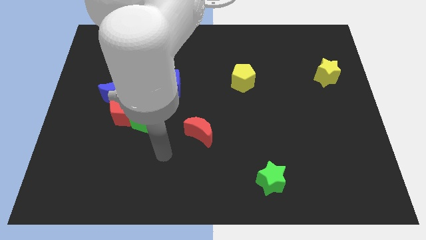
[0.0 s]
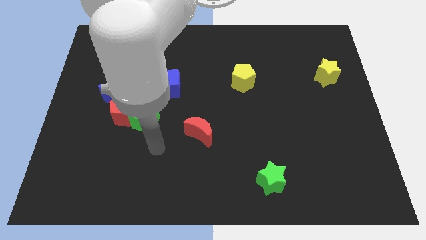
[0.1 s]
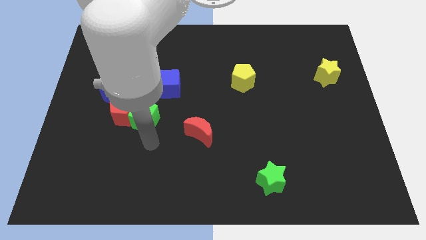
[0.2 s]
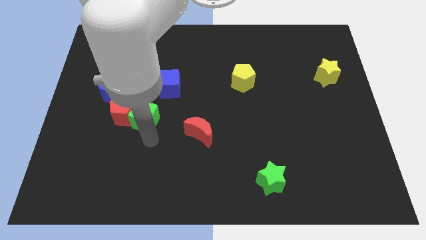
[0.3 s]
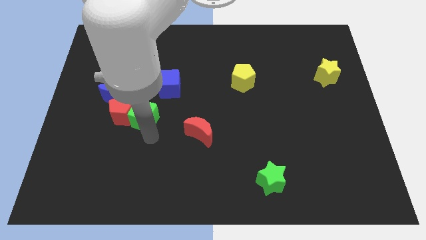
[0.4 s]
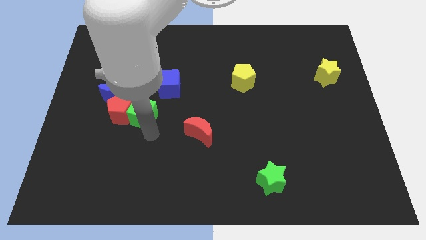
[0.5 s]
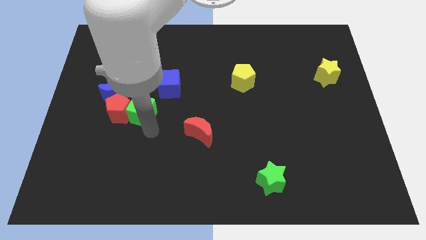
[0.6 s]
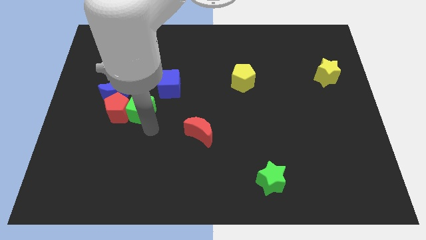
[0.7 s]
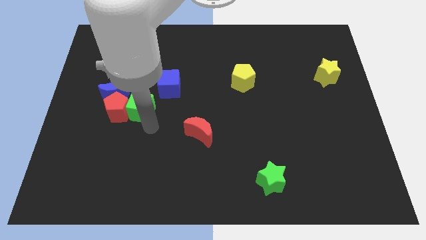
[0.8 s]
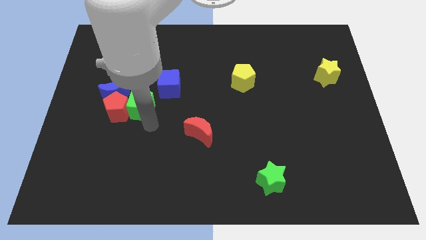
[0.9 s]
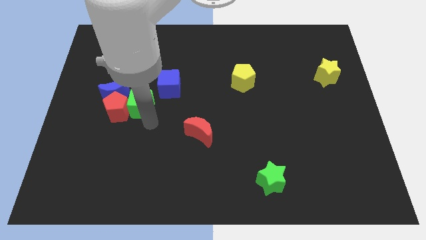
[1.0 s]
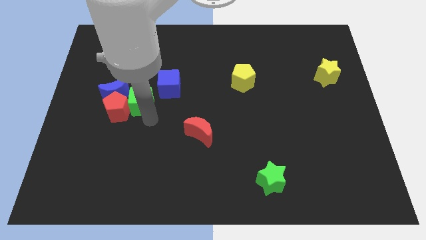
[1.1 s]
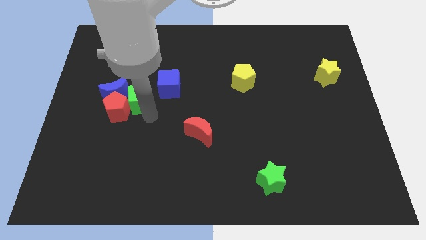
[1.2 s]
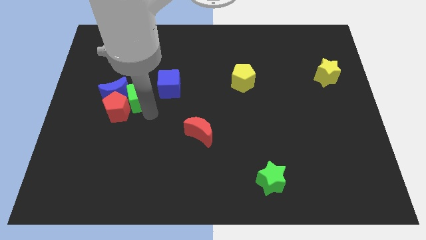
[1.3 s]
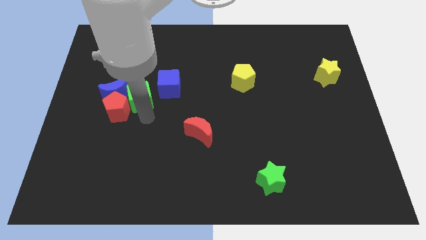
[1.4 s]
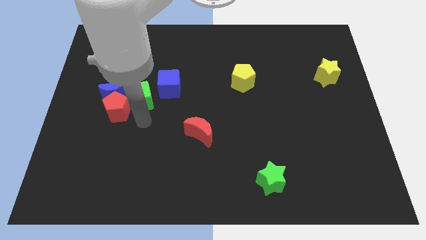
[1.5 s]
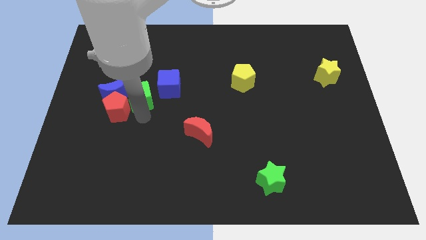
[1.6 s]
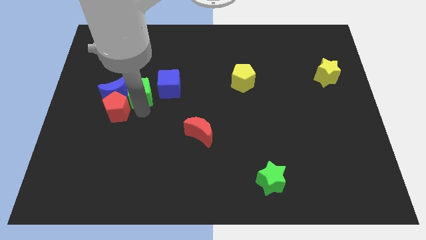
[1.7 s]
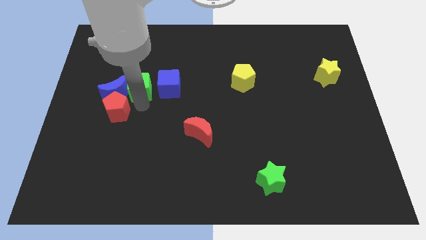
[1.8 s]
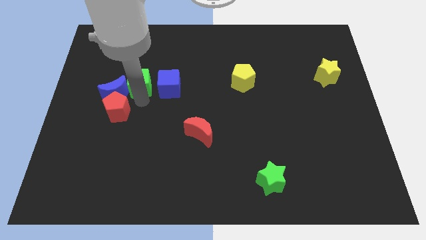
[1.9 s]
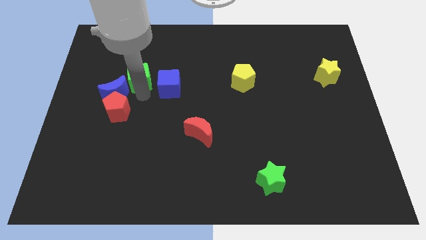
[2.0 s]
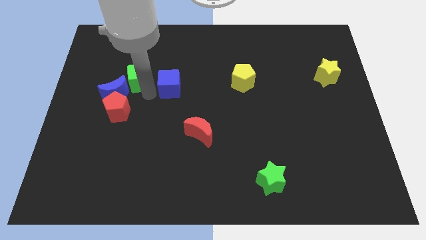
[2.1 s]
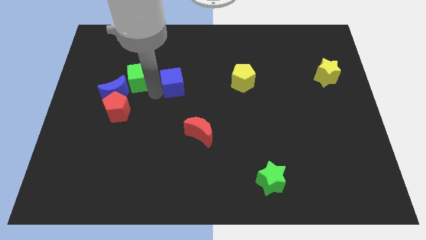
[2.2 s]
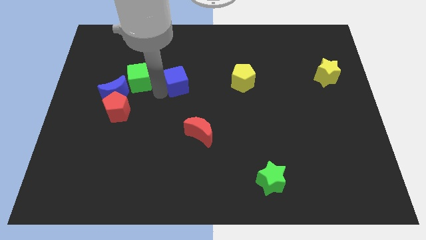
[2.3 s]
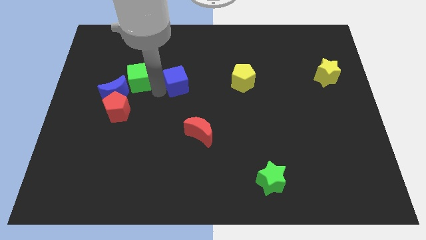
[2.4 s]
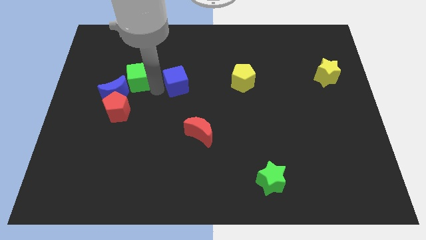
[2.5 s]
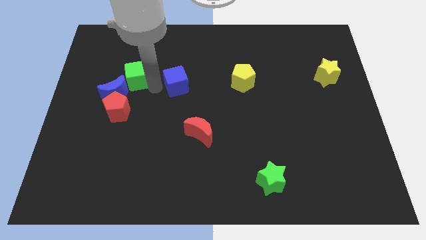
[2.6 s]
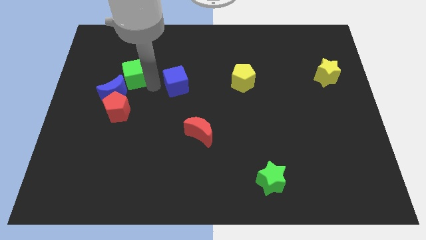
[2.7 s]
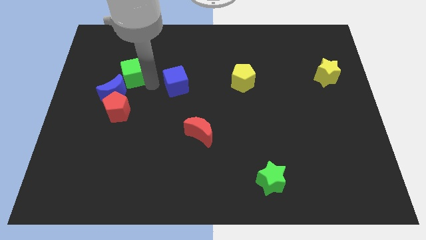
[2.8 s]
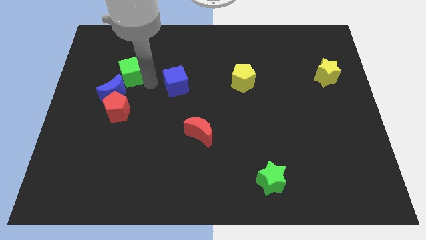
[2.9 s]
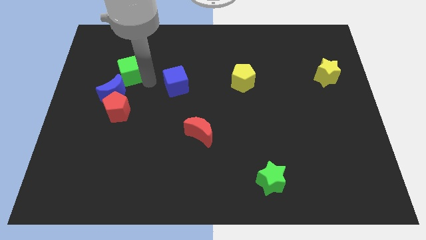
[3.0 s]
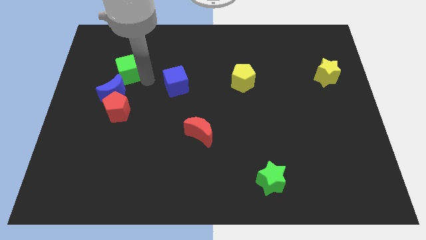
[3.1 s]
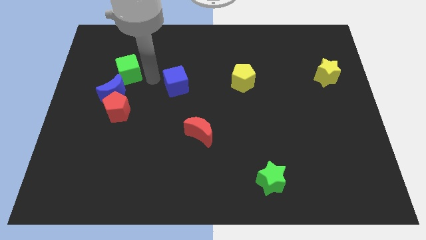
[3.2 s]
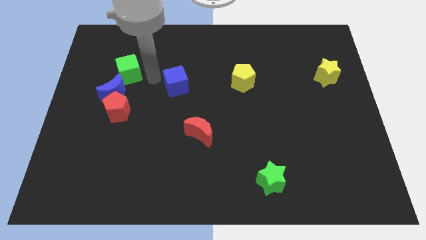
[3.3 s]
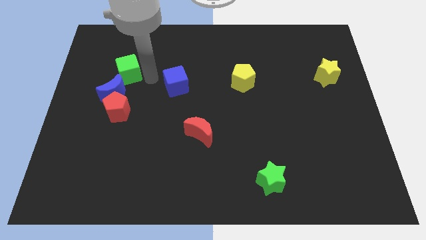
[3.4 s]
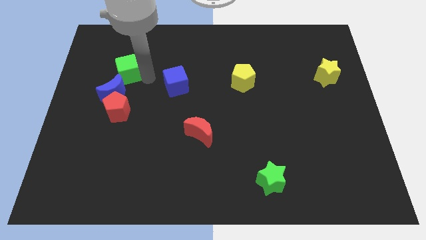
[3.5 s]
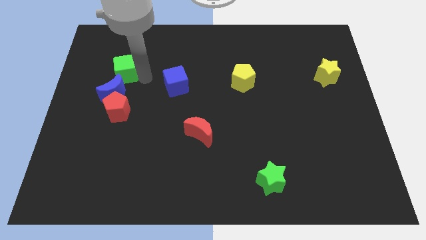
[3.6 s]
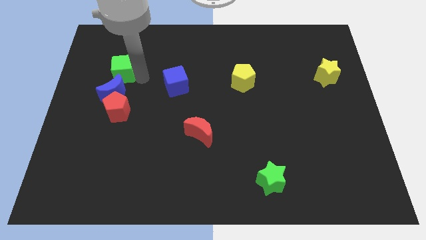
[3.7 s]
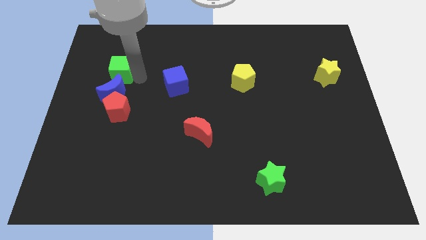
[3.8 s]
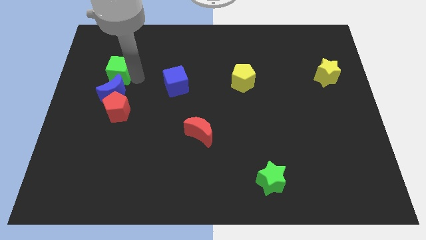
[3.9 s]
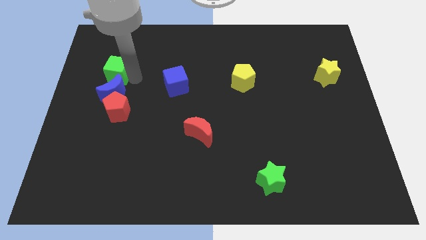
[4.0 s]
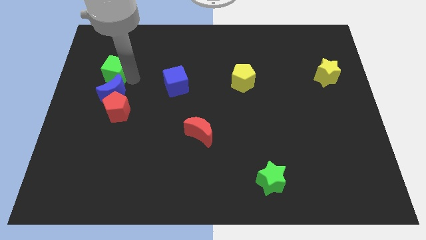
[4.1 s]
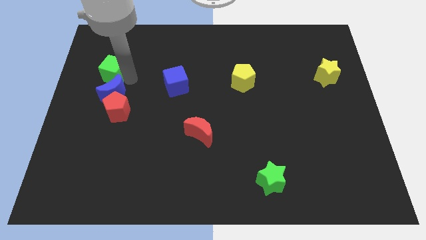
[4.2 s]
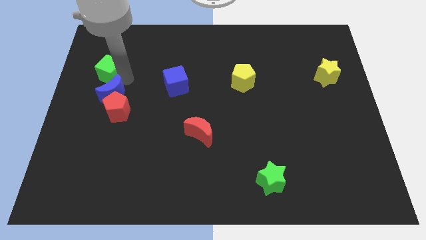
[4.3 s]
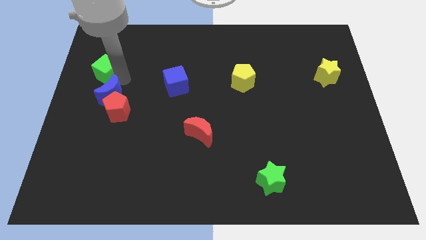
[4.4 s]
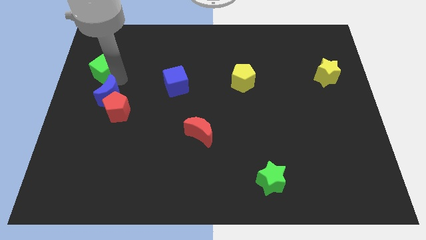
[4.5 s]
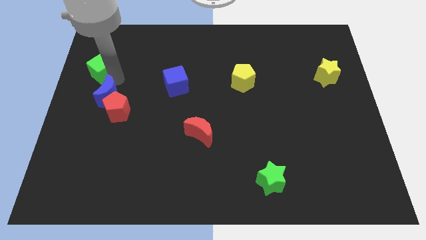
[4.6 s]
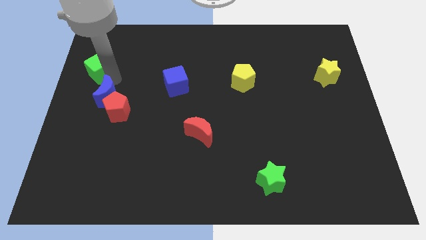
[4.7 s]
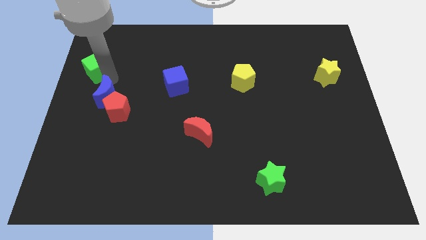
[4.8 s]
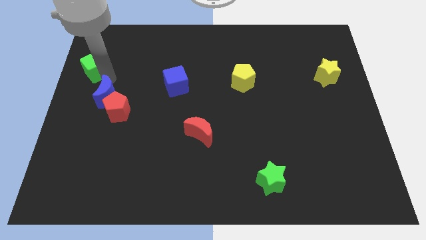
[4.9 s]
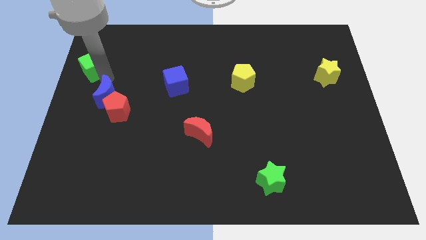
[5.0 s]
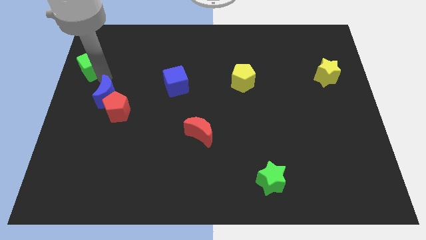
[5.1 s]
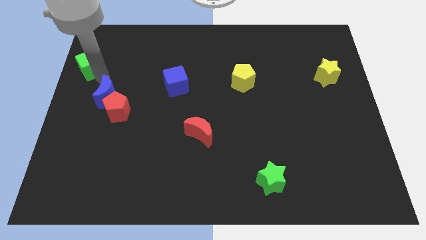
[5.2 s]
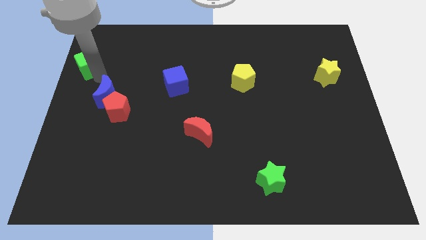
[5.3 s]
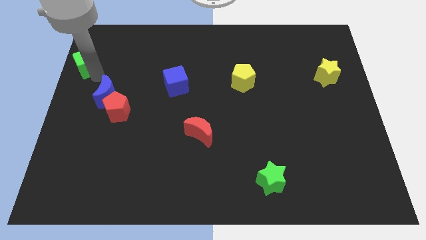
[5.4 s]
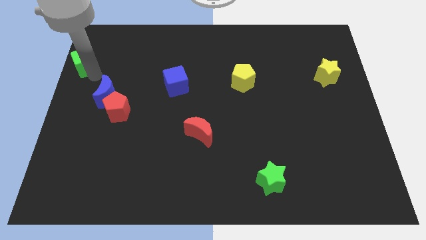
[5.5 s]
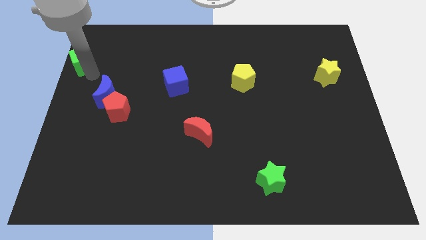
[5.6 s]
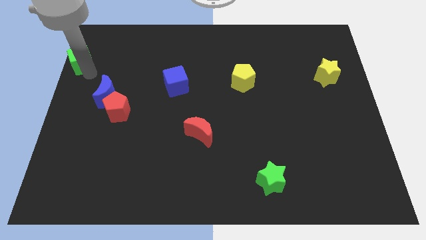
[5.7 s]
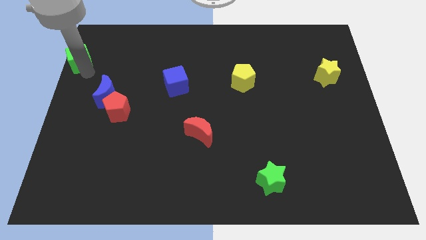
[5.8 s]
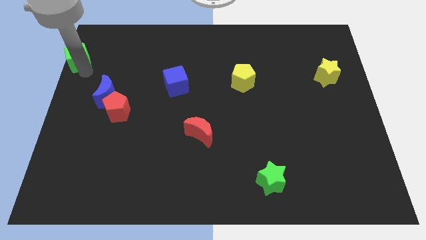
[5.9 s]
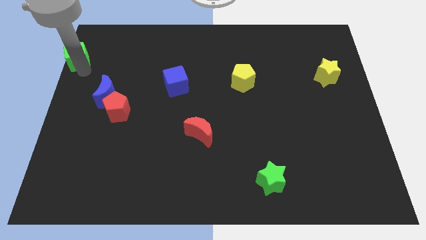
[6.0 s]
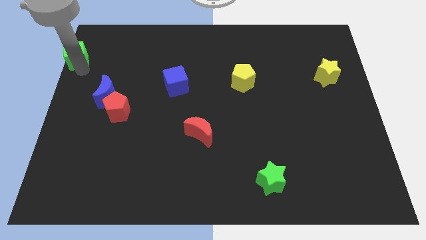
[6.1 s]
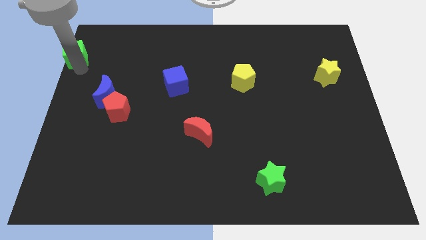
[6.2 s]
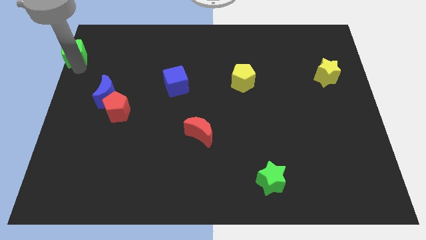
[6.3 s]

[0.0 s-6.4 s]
move the green cube to the top left

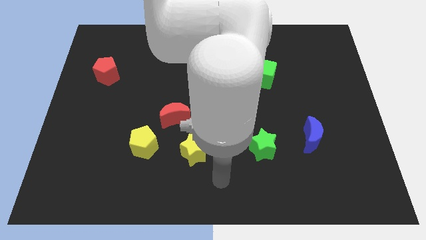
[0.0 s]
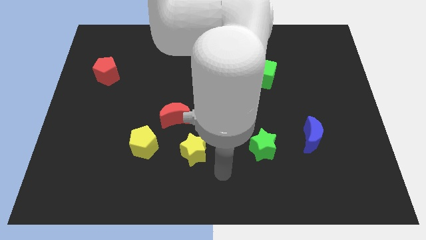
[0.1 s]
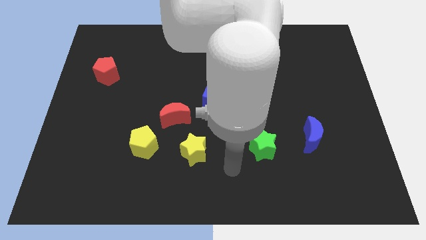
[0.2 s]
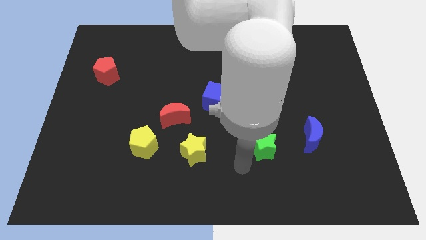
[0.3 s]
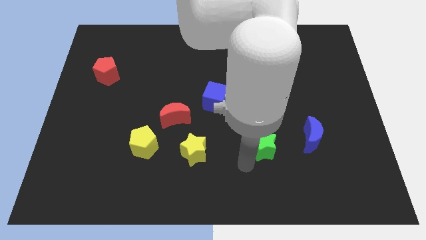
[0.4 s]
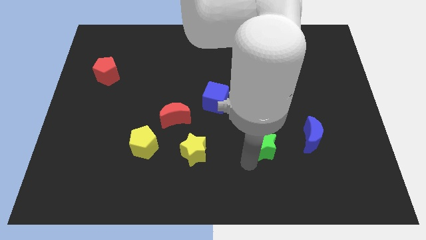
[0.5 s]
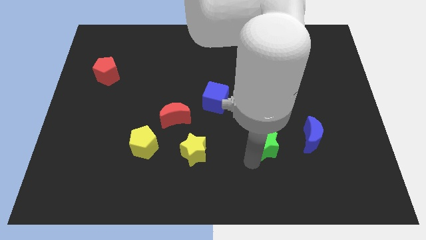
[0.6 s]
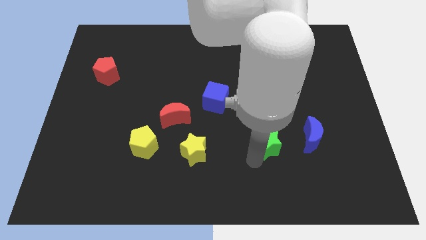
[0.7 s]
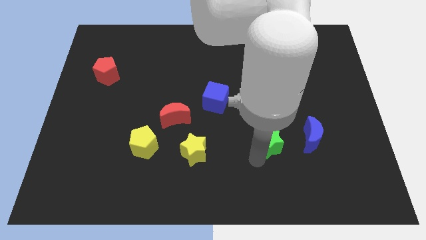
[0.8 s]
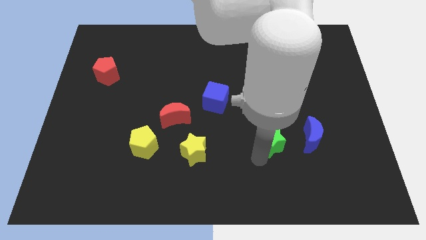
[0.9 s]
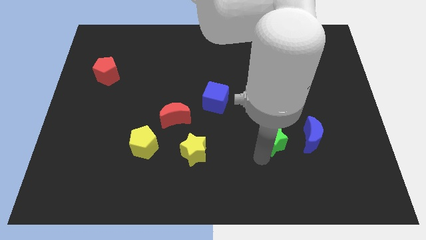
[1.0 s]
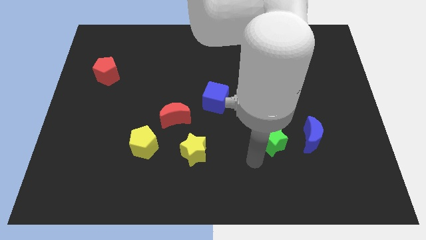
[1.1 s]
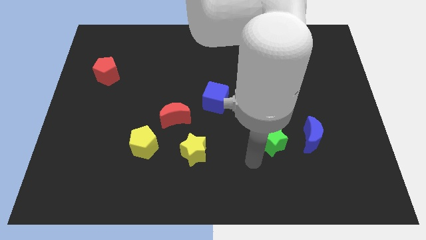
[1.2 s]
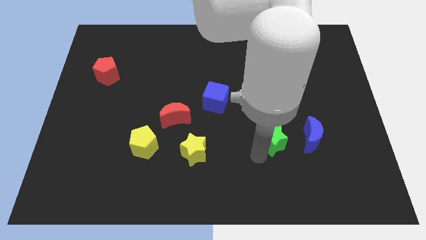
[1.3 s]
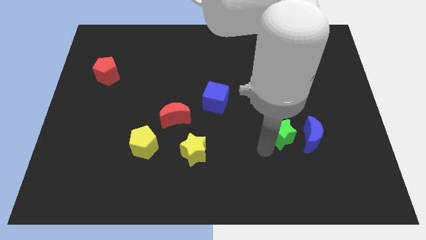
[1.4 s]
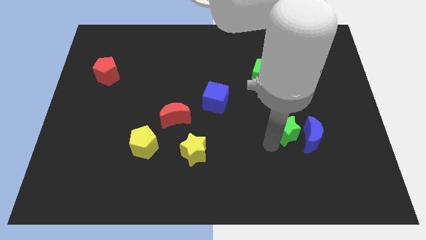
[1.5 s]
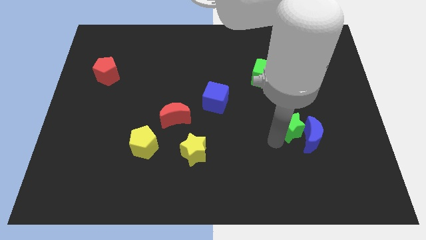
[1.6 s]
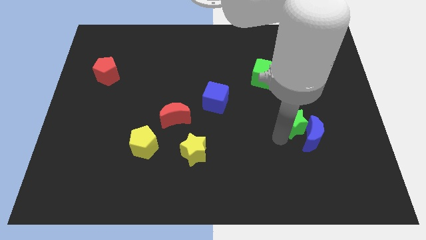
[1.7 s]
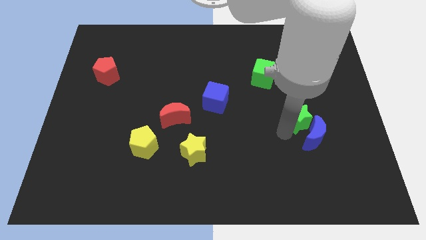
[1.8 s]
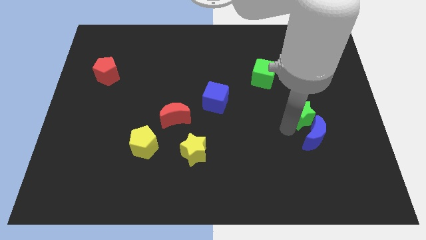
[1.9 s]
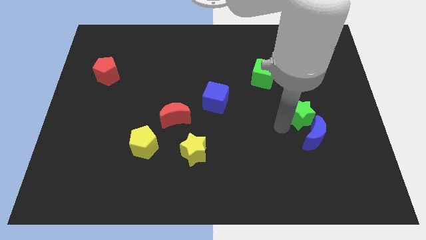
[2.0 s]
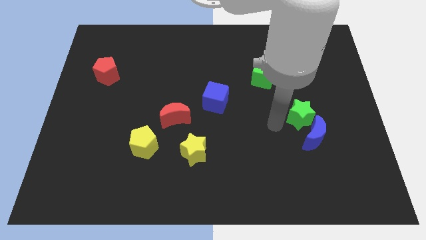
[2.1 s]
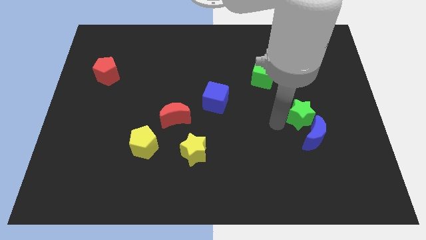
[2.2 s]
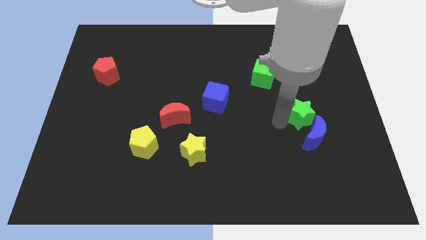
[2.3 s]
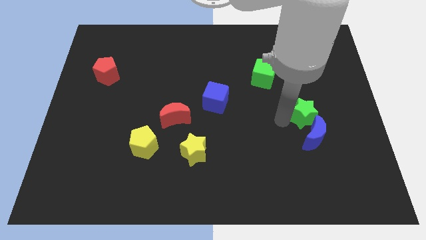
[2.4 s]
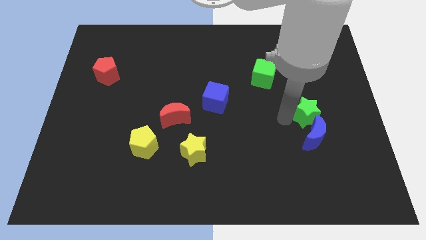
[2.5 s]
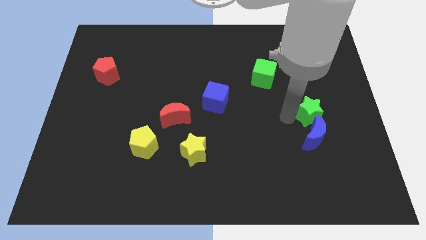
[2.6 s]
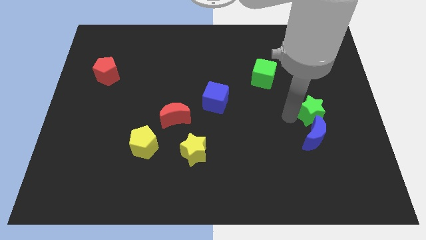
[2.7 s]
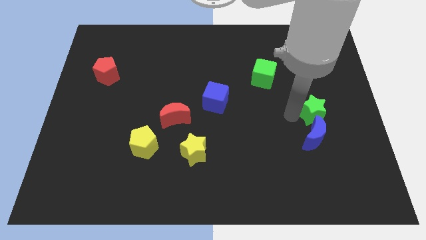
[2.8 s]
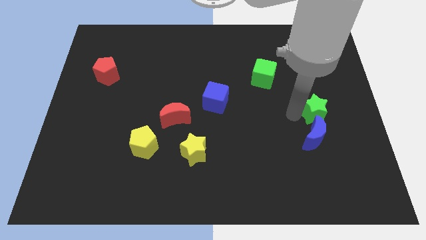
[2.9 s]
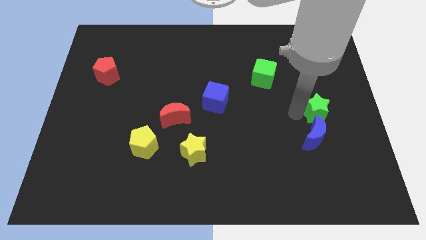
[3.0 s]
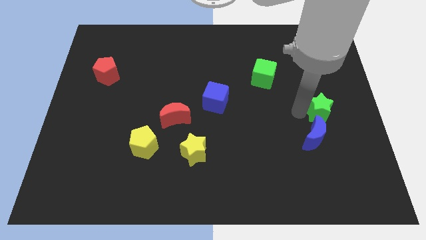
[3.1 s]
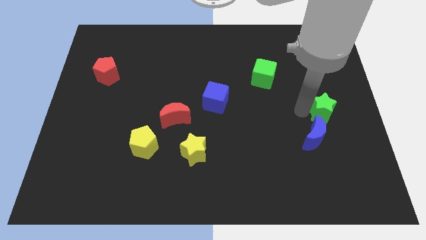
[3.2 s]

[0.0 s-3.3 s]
push the green star to the right side
